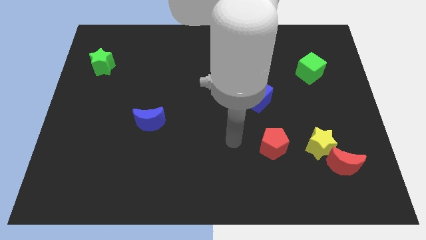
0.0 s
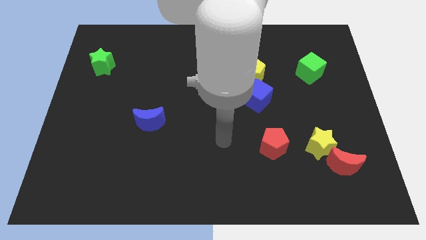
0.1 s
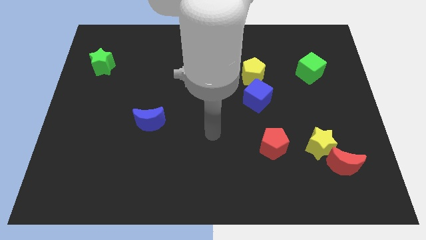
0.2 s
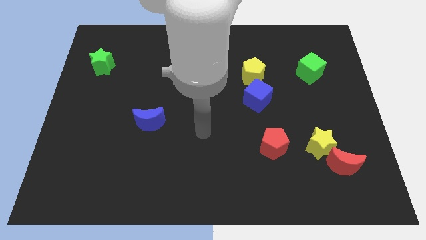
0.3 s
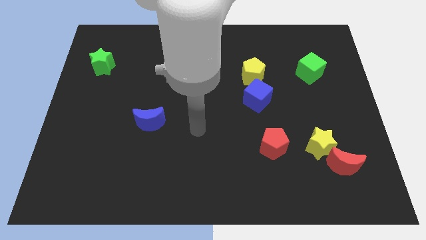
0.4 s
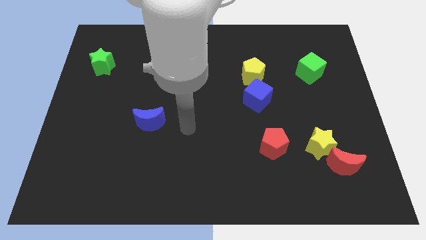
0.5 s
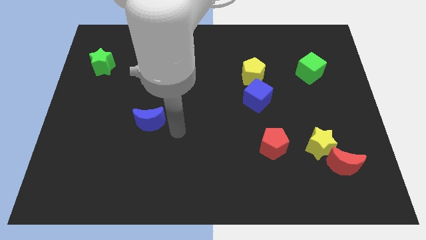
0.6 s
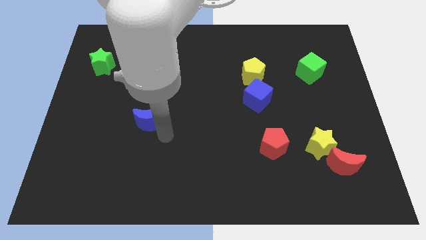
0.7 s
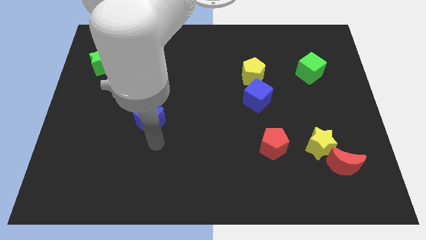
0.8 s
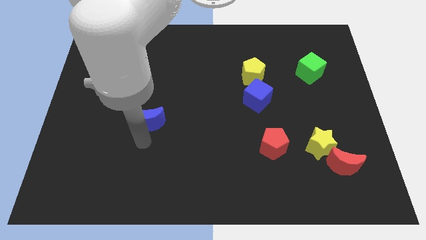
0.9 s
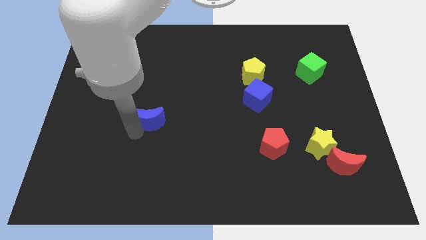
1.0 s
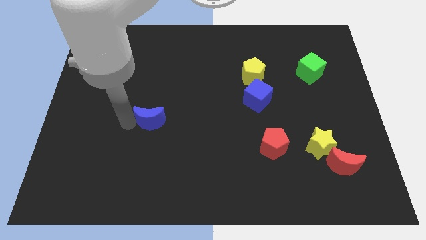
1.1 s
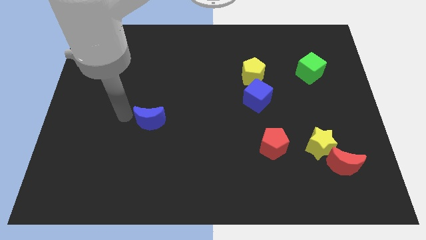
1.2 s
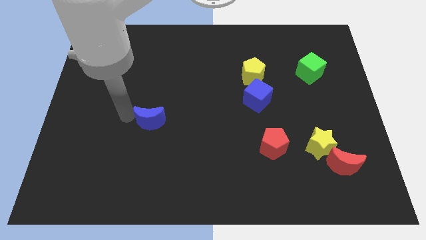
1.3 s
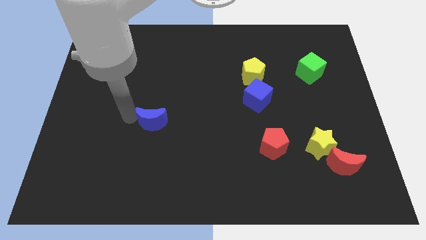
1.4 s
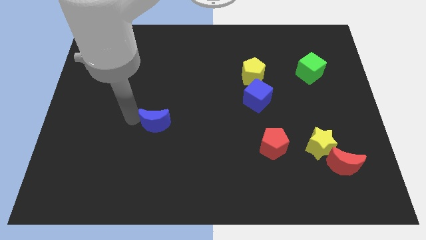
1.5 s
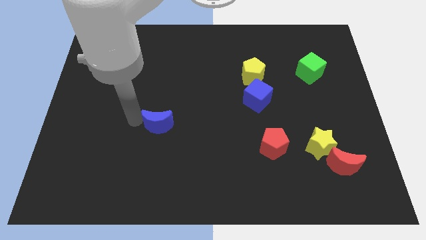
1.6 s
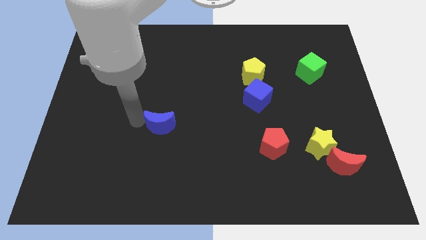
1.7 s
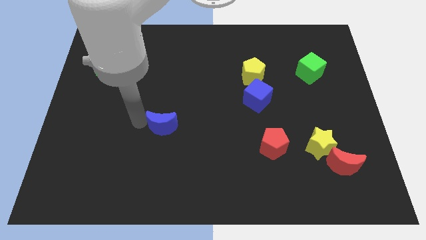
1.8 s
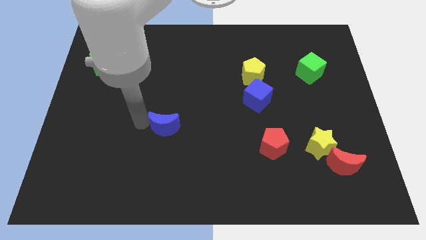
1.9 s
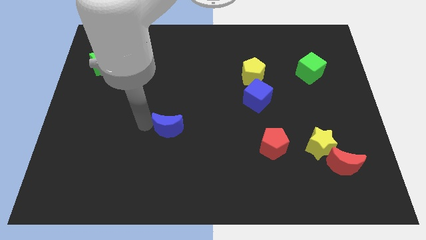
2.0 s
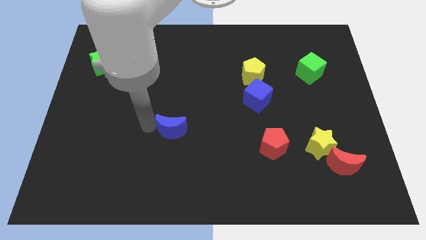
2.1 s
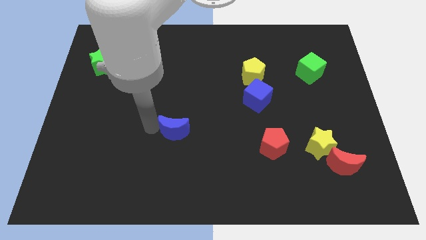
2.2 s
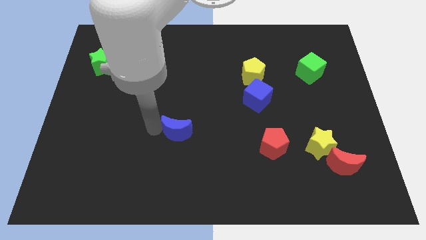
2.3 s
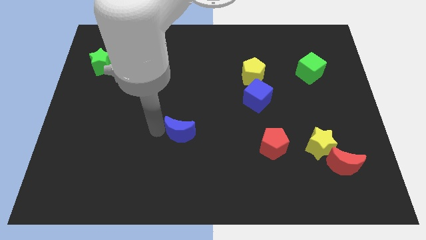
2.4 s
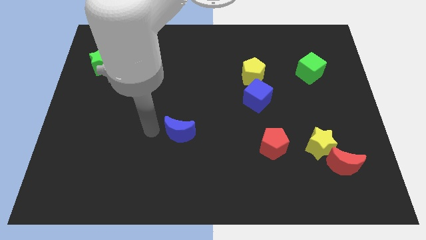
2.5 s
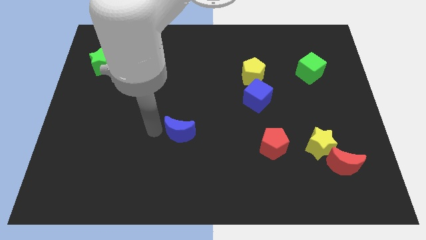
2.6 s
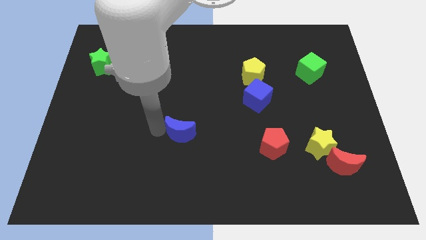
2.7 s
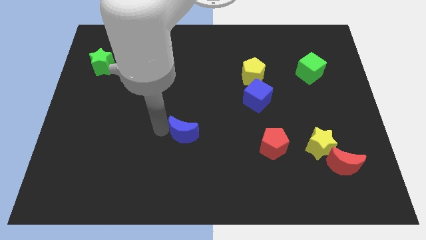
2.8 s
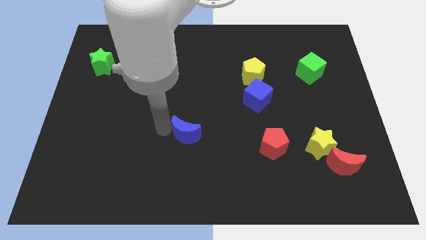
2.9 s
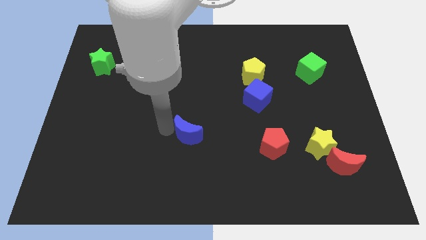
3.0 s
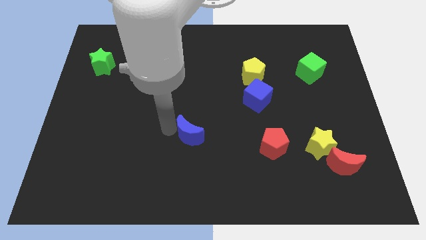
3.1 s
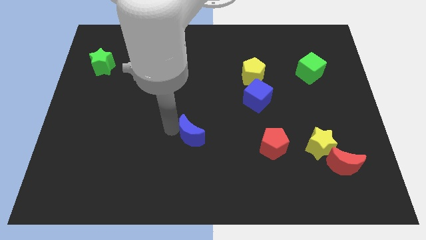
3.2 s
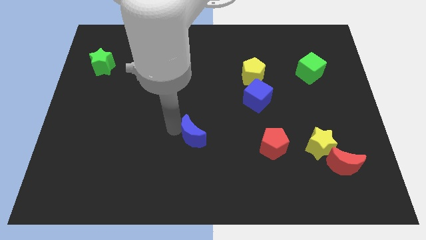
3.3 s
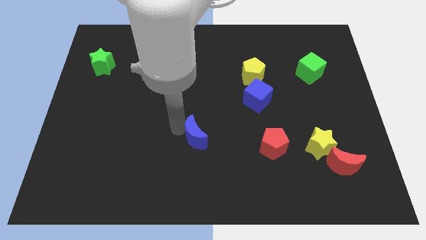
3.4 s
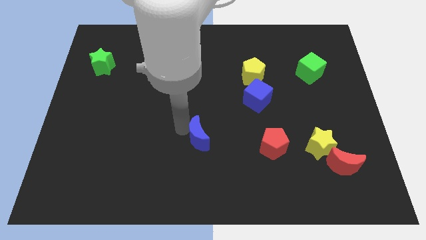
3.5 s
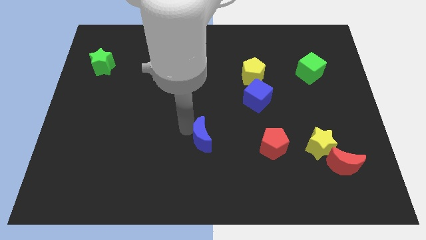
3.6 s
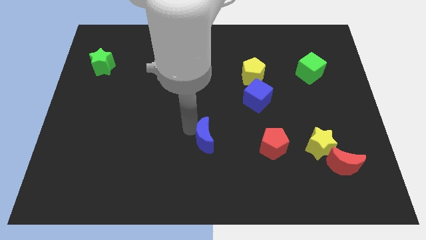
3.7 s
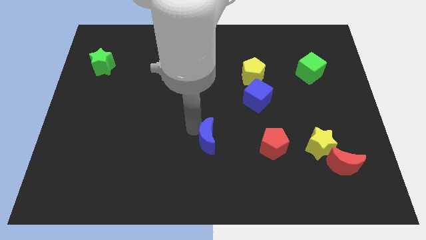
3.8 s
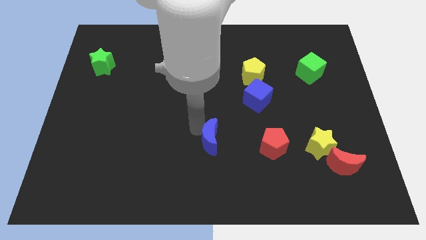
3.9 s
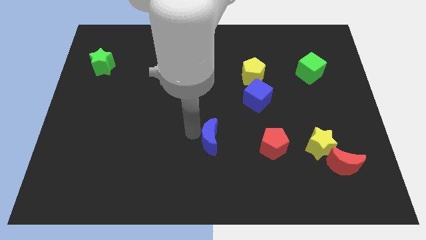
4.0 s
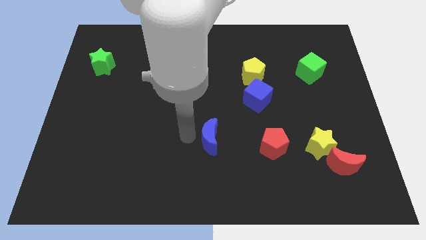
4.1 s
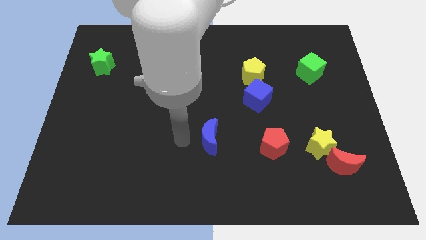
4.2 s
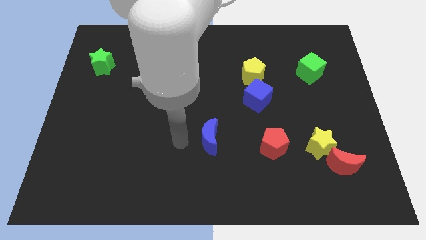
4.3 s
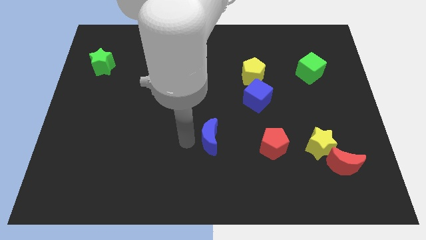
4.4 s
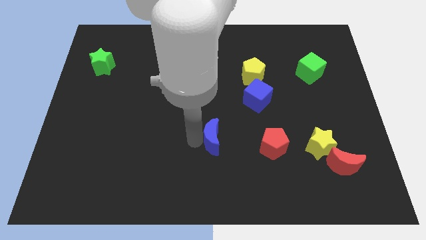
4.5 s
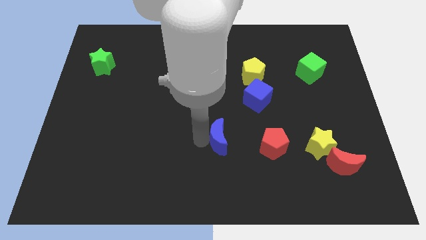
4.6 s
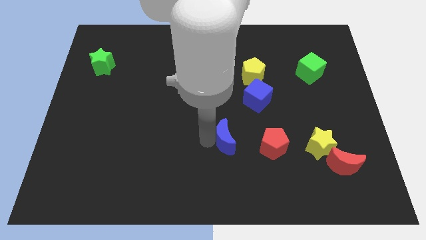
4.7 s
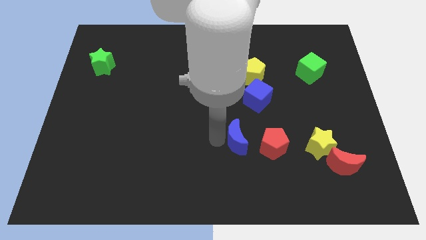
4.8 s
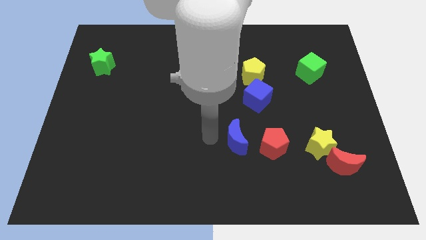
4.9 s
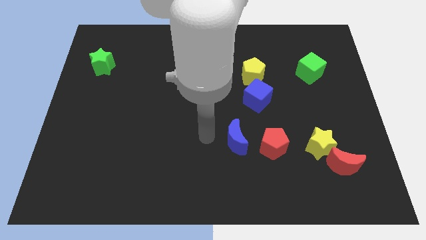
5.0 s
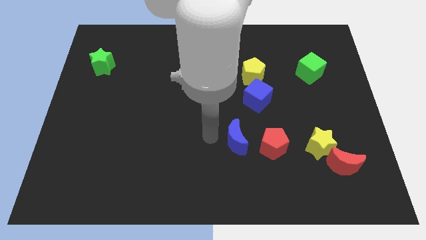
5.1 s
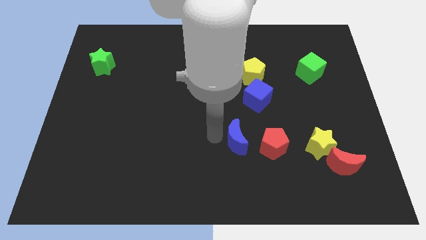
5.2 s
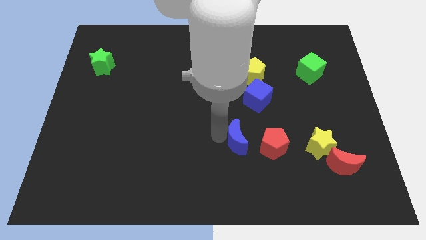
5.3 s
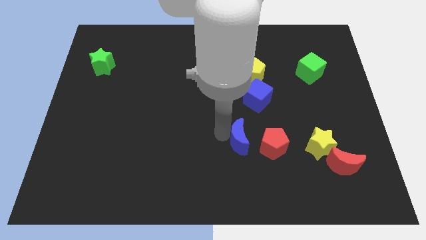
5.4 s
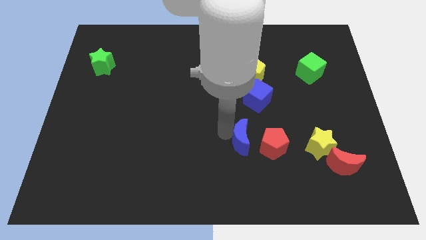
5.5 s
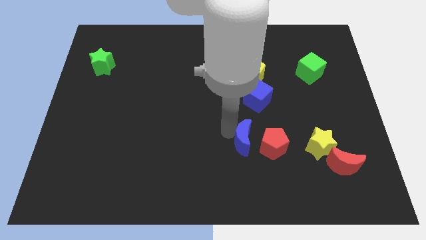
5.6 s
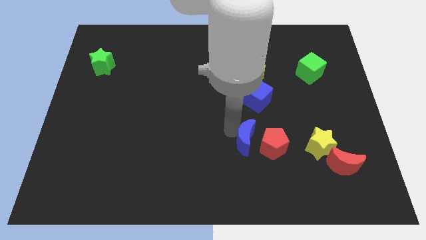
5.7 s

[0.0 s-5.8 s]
slide the blue moon to the red pentagon
